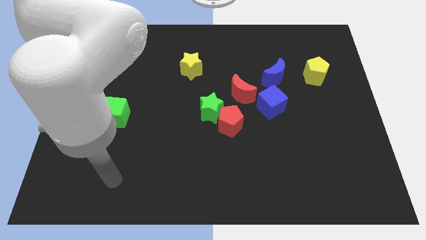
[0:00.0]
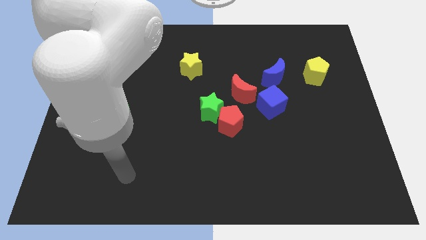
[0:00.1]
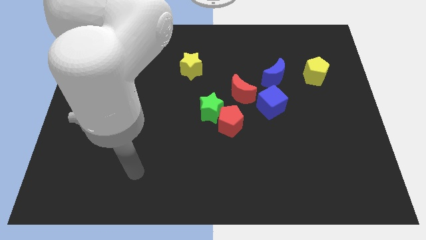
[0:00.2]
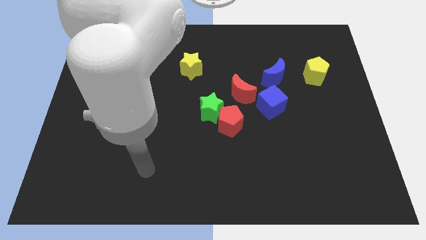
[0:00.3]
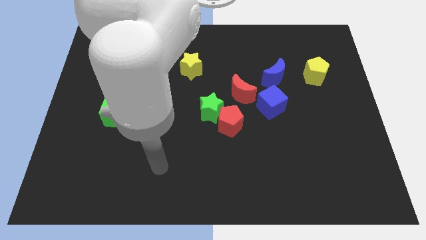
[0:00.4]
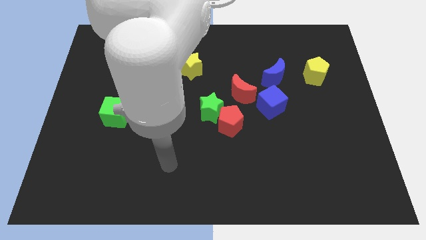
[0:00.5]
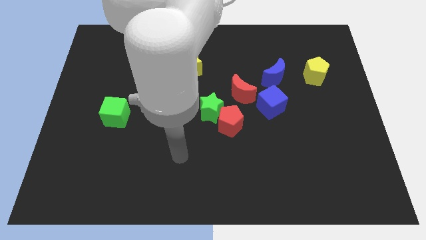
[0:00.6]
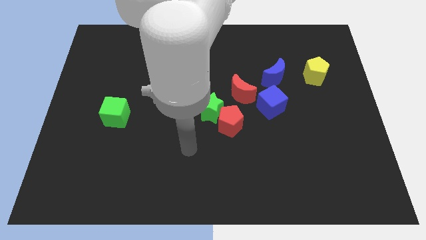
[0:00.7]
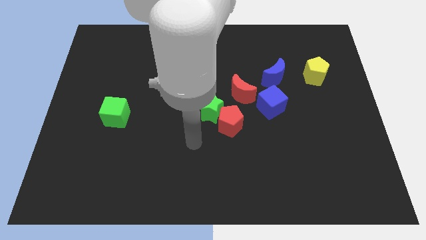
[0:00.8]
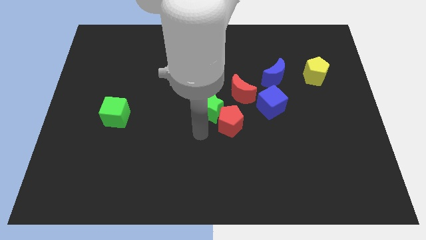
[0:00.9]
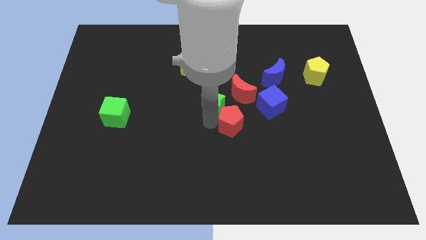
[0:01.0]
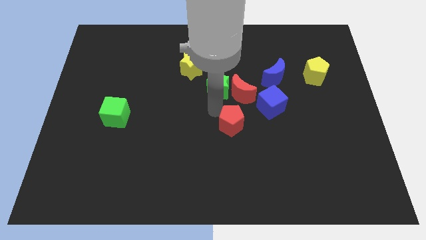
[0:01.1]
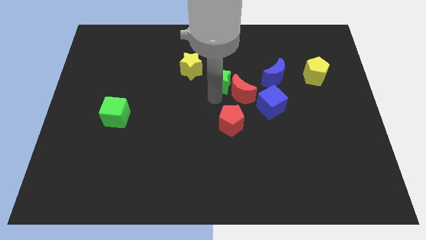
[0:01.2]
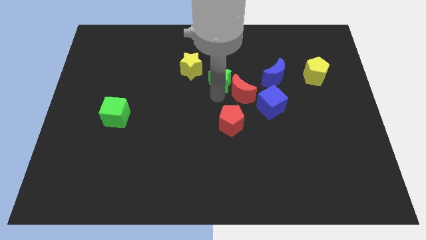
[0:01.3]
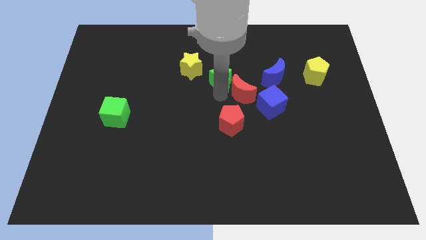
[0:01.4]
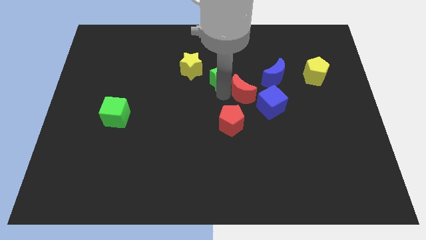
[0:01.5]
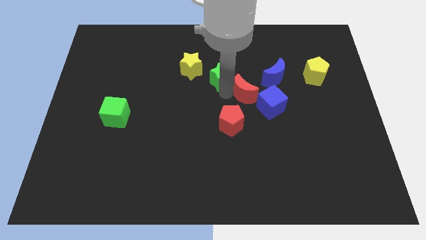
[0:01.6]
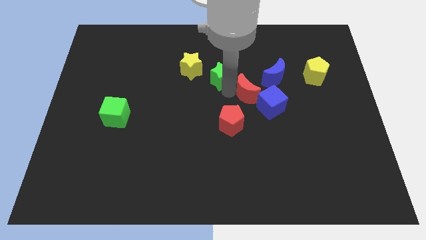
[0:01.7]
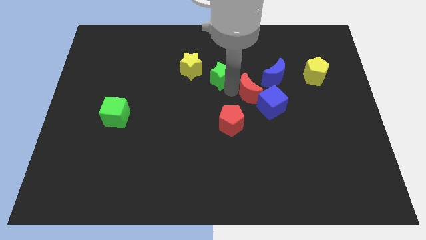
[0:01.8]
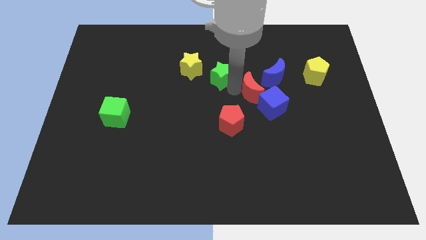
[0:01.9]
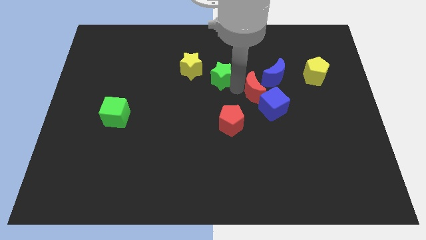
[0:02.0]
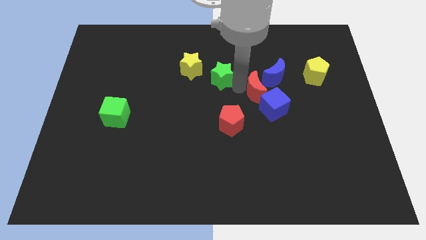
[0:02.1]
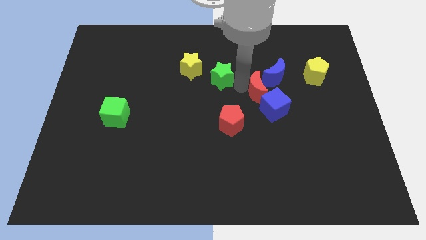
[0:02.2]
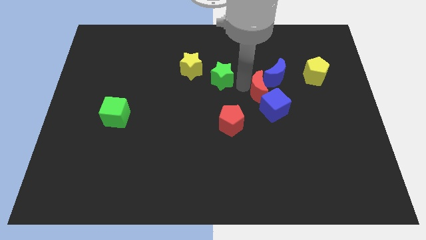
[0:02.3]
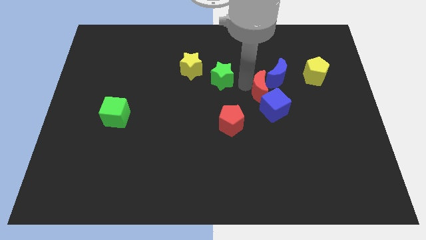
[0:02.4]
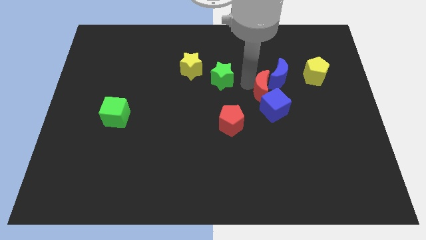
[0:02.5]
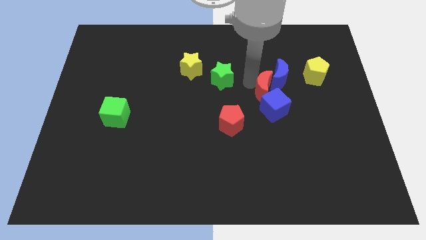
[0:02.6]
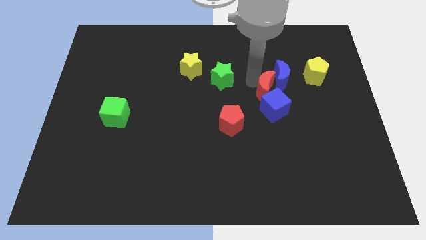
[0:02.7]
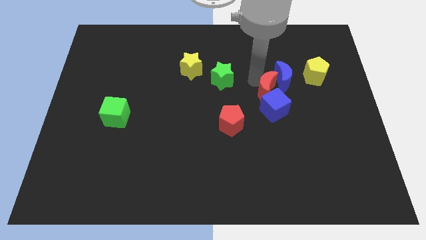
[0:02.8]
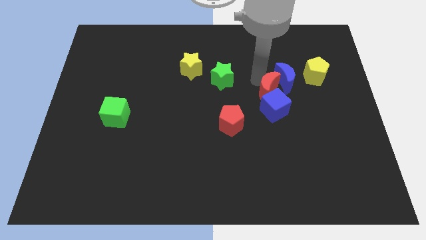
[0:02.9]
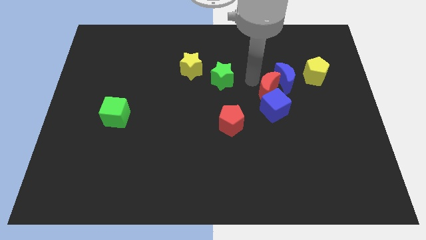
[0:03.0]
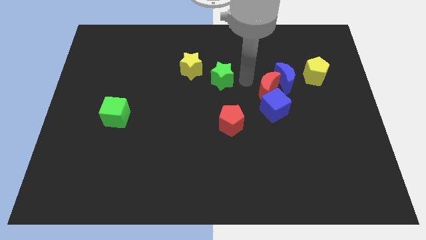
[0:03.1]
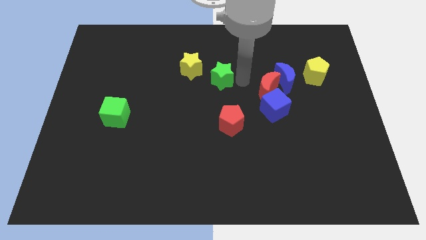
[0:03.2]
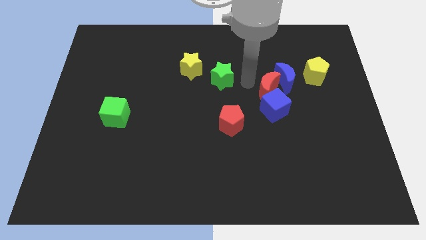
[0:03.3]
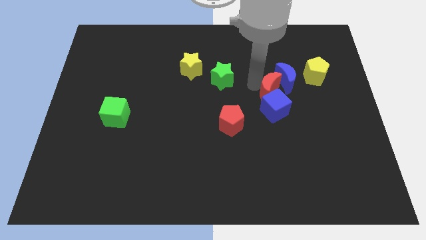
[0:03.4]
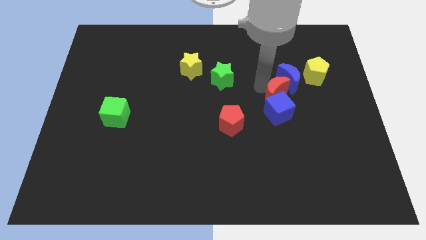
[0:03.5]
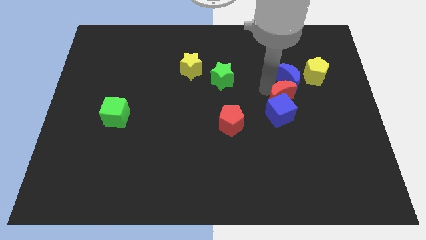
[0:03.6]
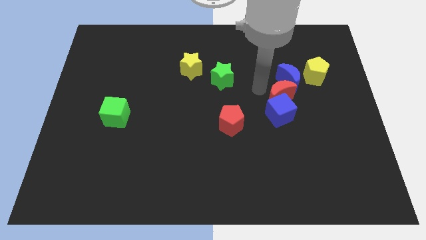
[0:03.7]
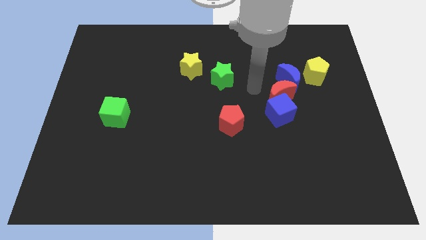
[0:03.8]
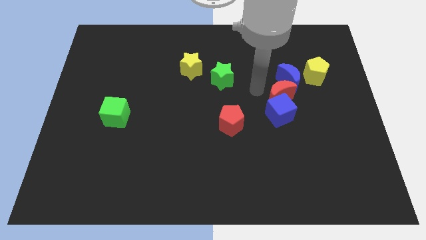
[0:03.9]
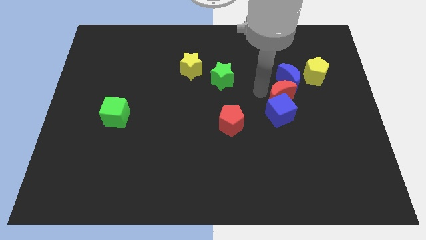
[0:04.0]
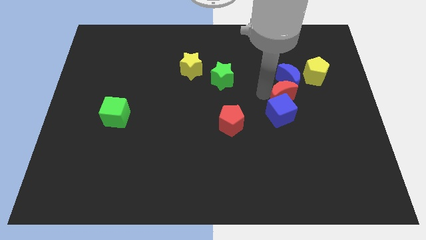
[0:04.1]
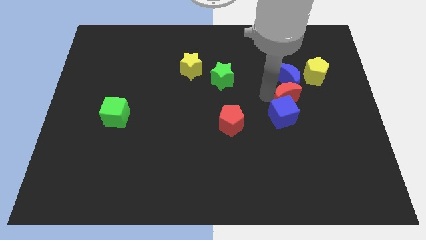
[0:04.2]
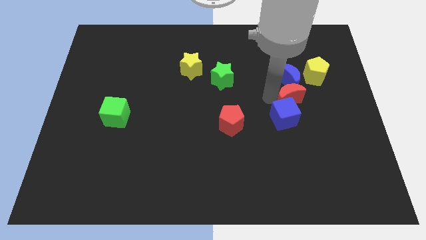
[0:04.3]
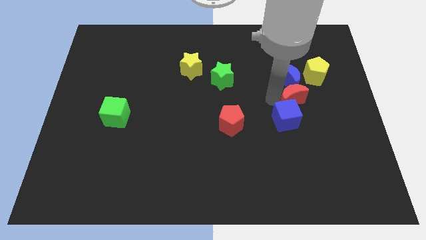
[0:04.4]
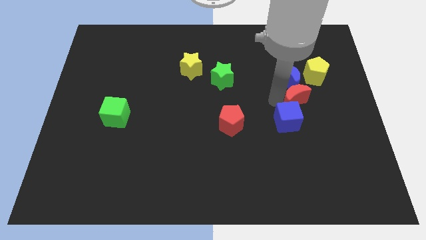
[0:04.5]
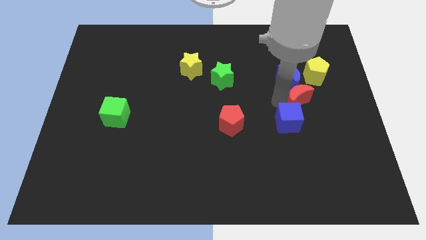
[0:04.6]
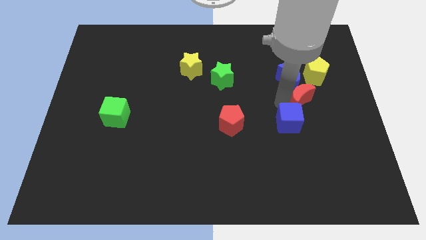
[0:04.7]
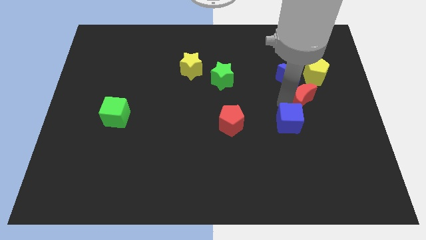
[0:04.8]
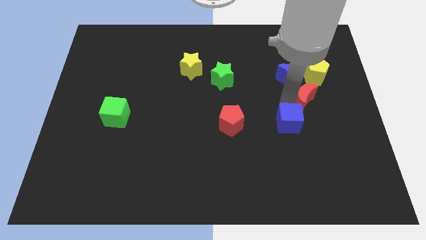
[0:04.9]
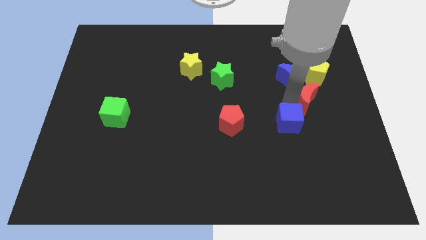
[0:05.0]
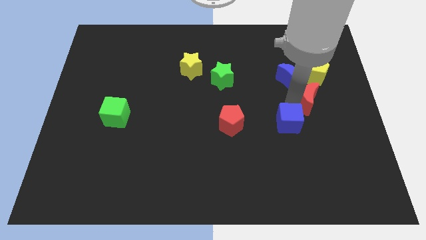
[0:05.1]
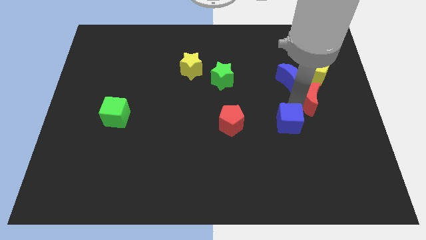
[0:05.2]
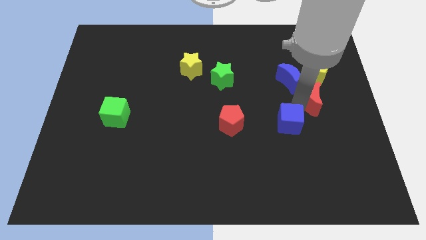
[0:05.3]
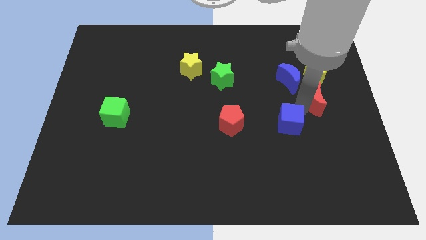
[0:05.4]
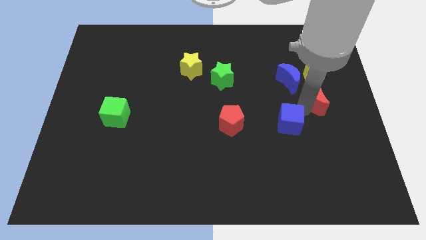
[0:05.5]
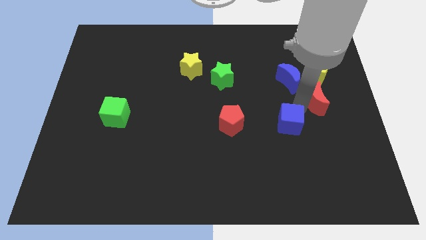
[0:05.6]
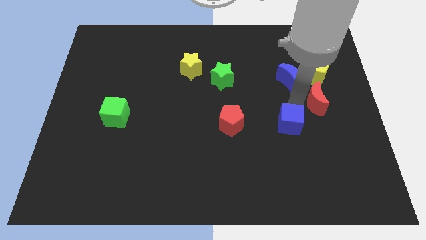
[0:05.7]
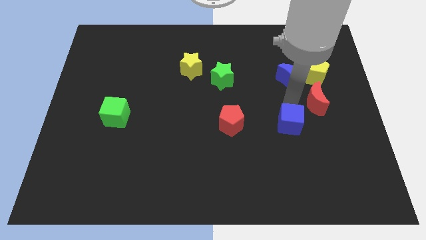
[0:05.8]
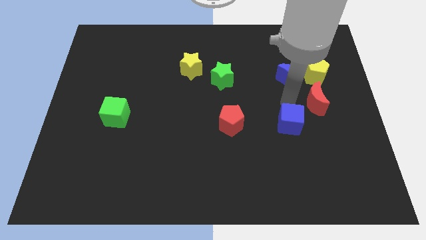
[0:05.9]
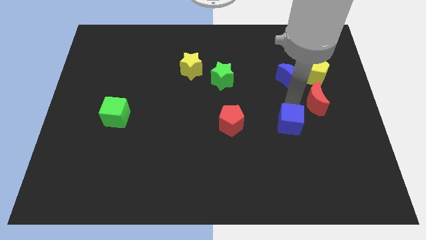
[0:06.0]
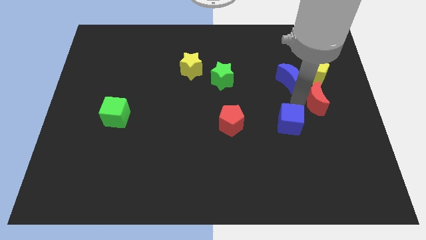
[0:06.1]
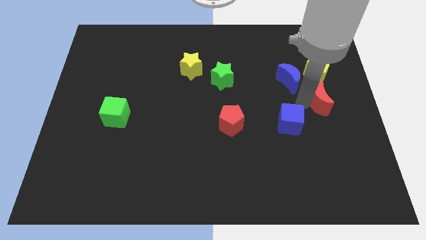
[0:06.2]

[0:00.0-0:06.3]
move the red moon to the right side

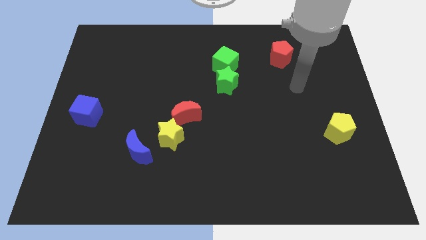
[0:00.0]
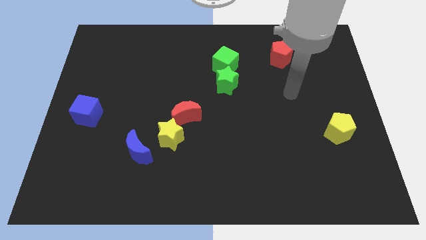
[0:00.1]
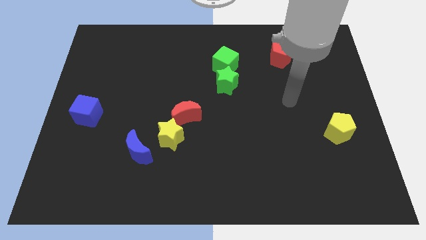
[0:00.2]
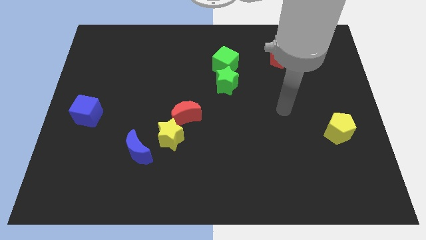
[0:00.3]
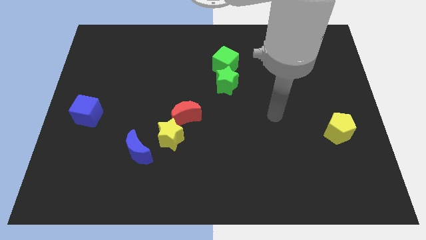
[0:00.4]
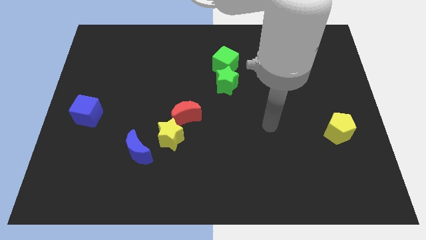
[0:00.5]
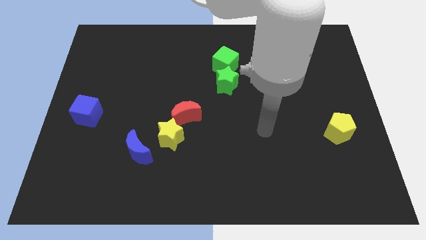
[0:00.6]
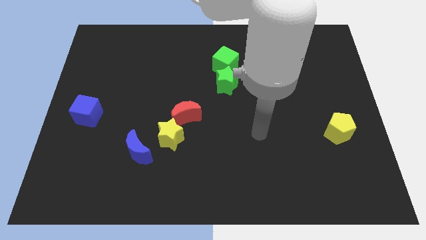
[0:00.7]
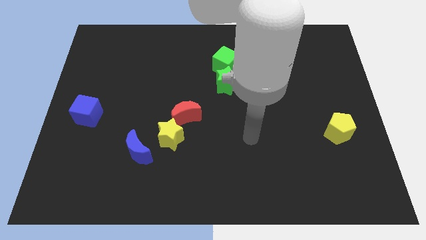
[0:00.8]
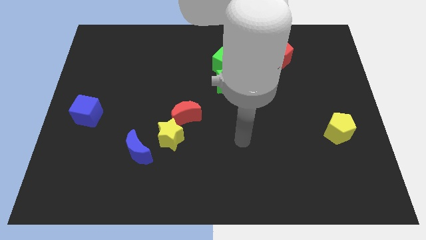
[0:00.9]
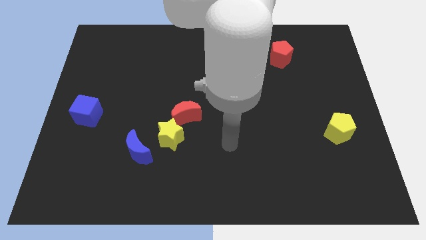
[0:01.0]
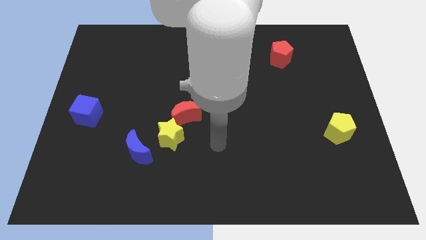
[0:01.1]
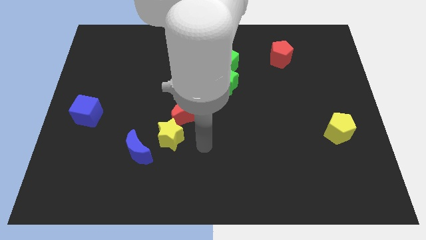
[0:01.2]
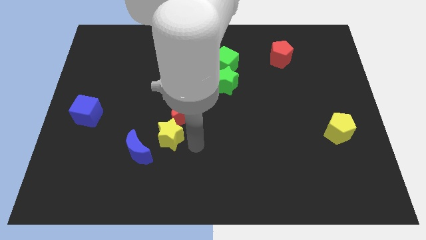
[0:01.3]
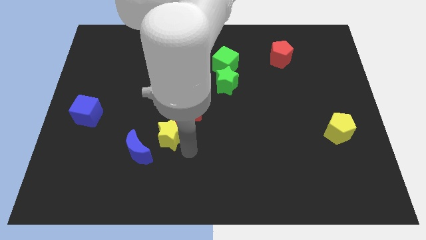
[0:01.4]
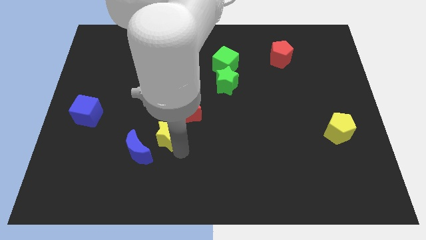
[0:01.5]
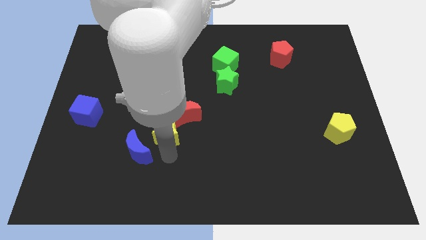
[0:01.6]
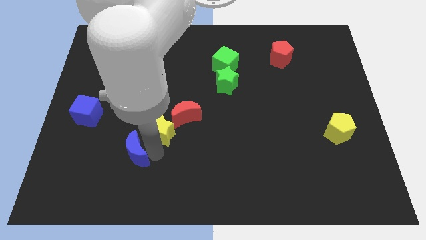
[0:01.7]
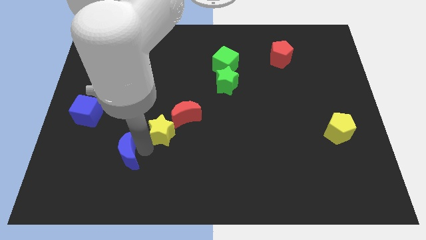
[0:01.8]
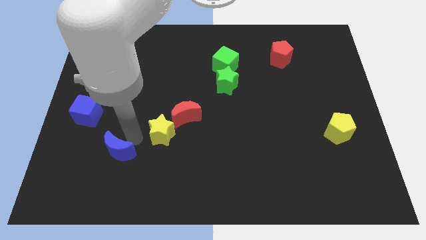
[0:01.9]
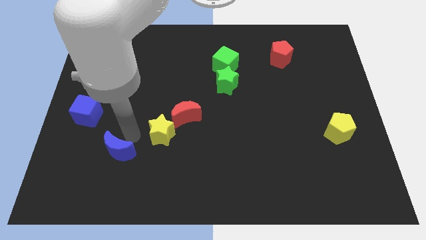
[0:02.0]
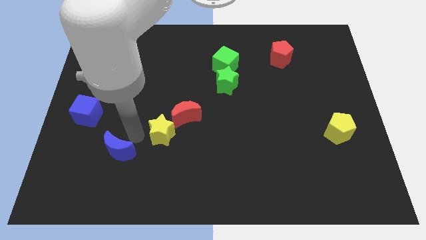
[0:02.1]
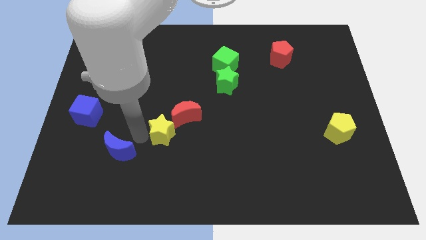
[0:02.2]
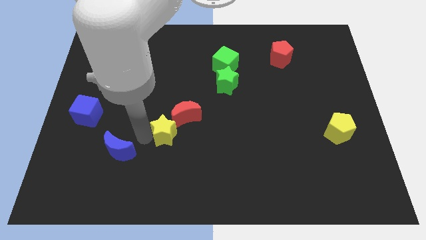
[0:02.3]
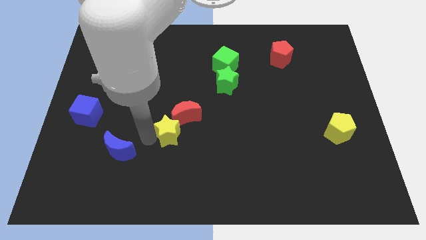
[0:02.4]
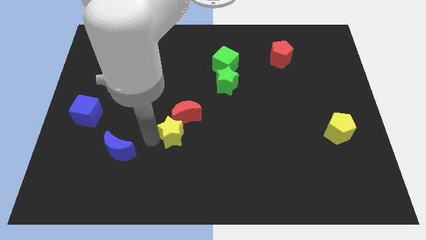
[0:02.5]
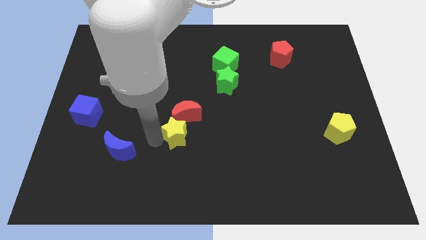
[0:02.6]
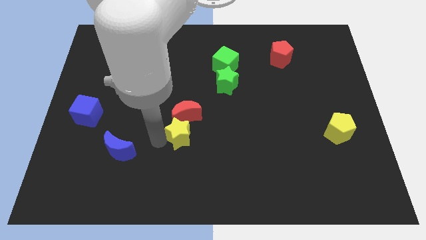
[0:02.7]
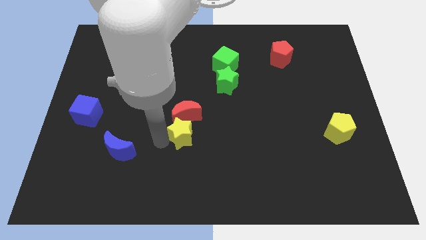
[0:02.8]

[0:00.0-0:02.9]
put the yellow star to the center of the board
